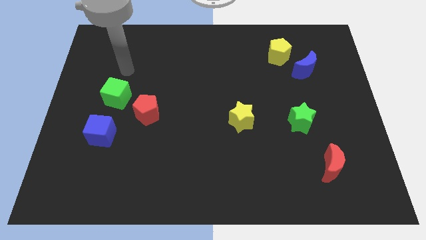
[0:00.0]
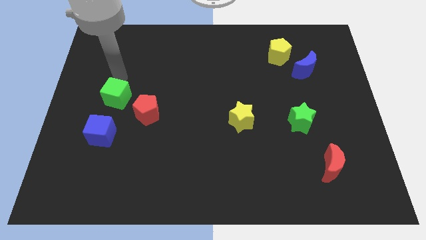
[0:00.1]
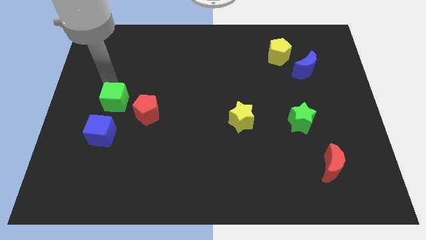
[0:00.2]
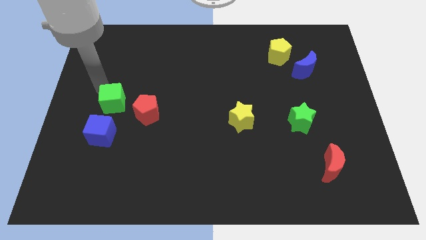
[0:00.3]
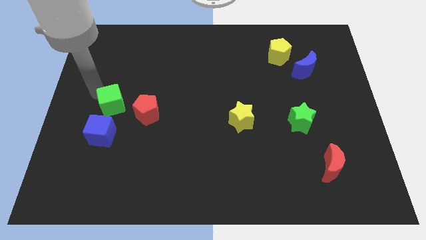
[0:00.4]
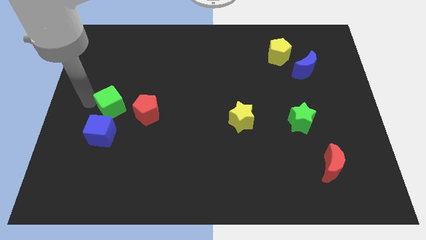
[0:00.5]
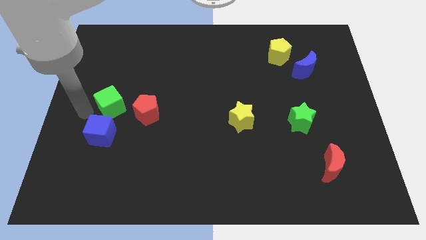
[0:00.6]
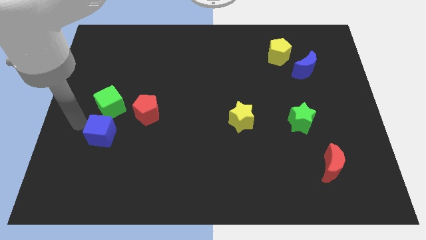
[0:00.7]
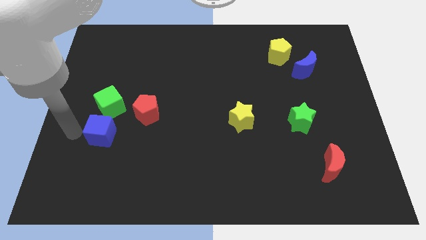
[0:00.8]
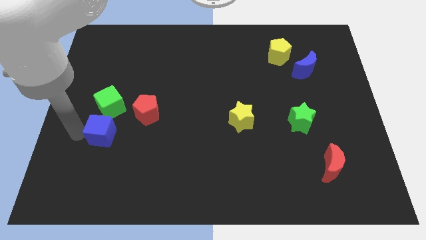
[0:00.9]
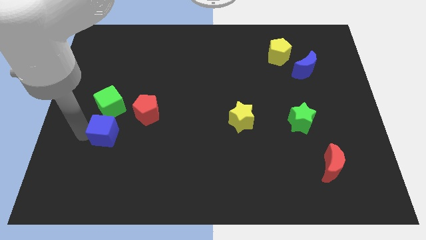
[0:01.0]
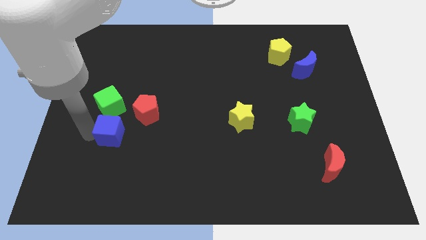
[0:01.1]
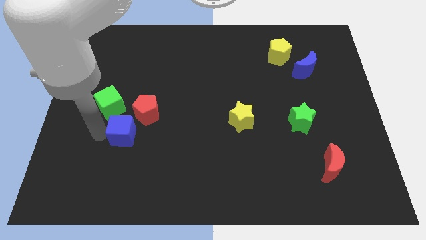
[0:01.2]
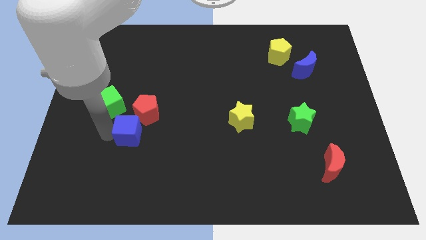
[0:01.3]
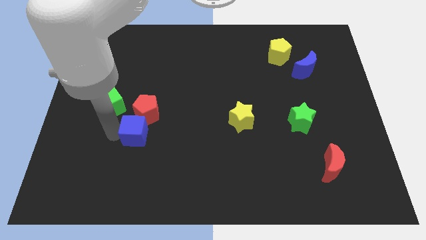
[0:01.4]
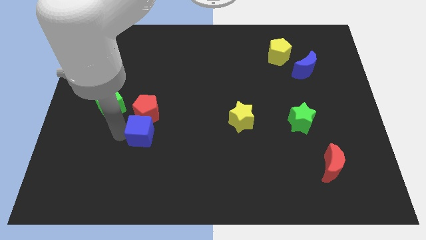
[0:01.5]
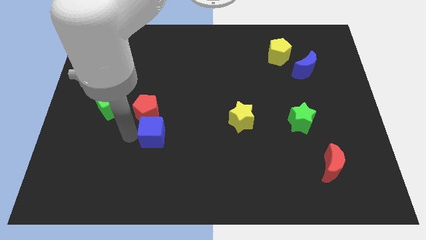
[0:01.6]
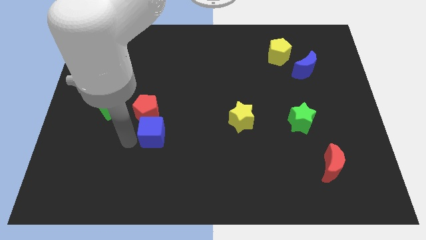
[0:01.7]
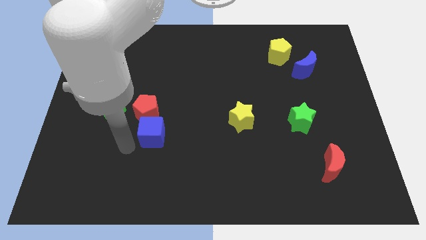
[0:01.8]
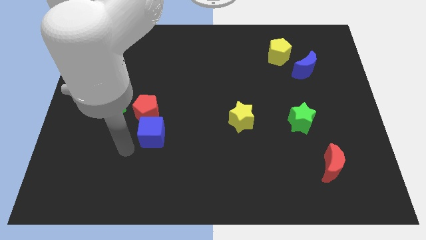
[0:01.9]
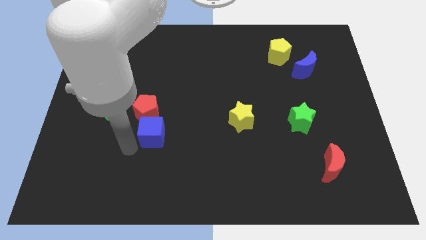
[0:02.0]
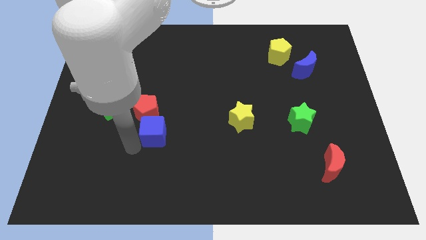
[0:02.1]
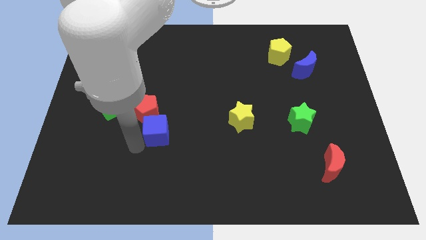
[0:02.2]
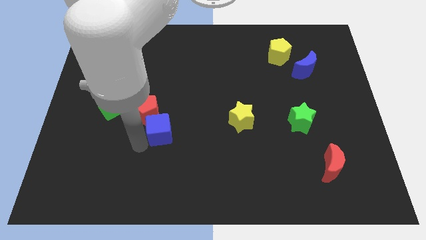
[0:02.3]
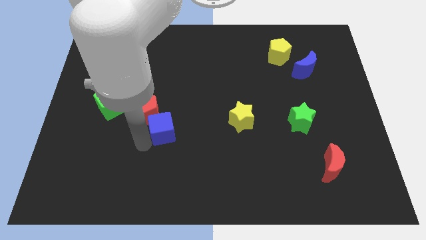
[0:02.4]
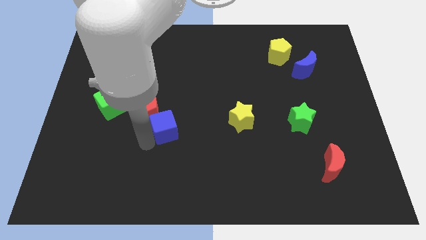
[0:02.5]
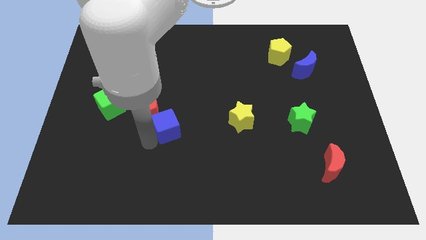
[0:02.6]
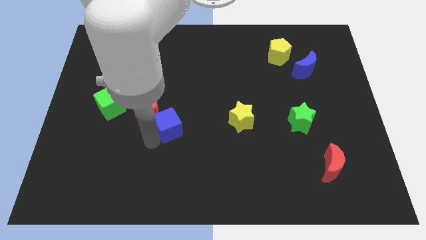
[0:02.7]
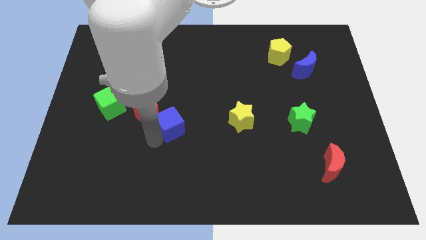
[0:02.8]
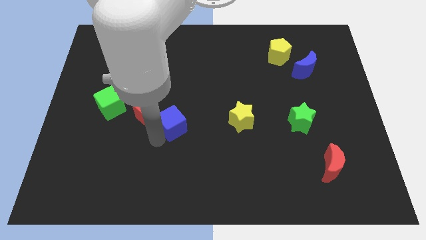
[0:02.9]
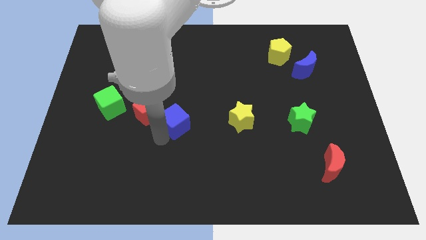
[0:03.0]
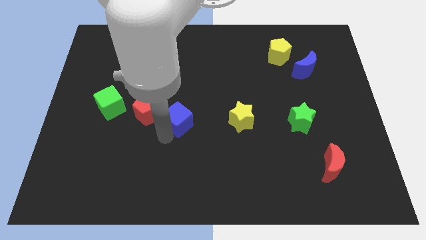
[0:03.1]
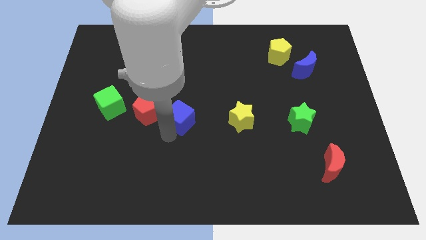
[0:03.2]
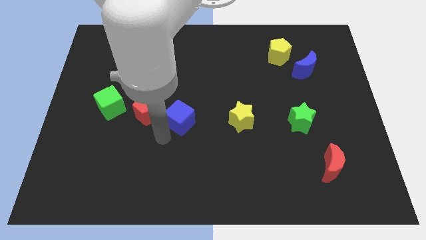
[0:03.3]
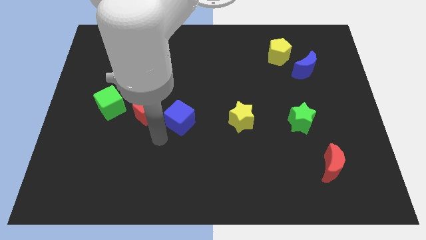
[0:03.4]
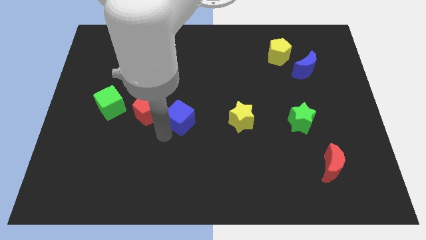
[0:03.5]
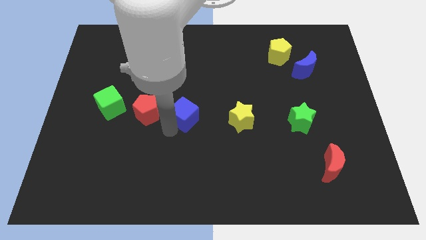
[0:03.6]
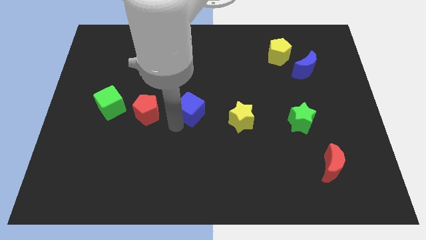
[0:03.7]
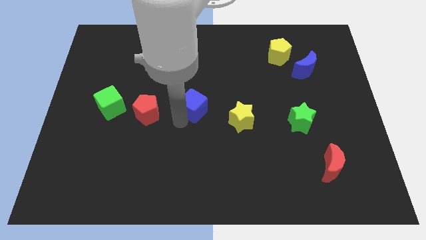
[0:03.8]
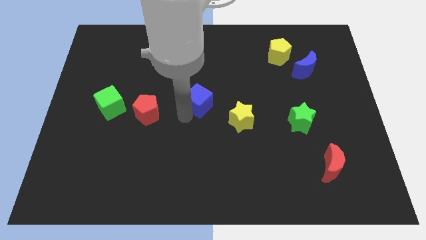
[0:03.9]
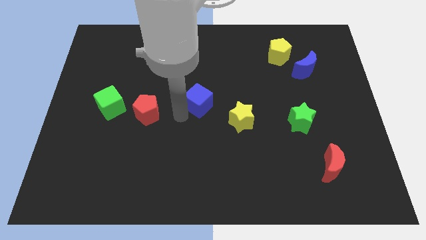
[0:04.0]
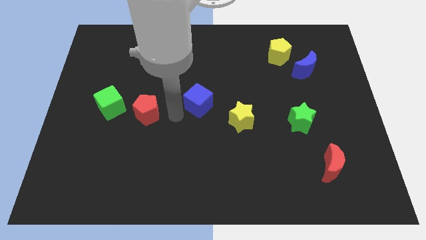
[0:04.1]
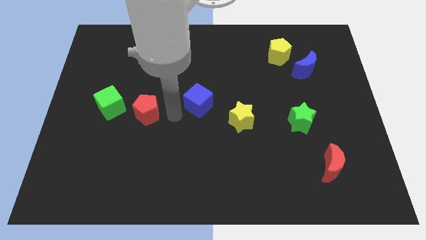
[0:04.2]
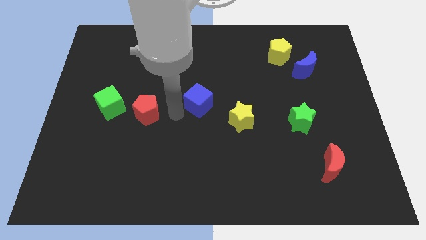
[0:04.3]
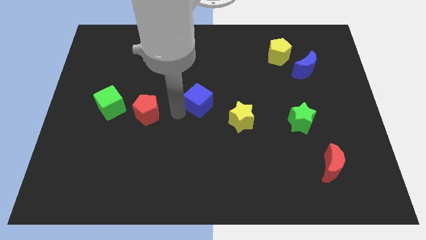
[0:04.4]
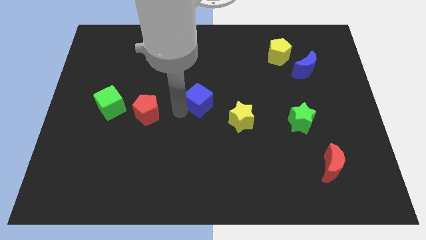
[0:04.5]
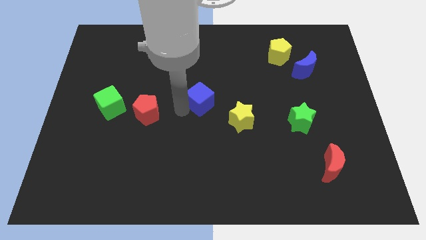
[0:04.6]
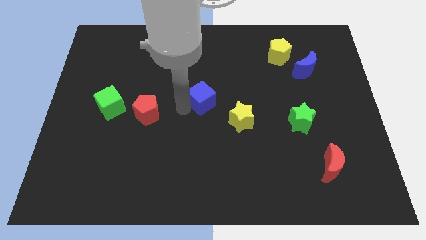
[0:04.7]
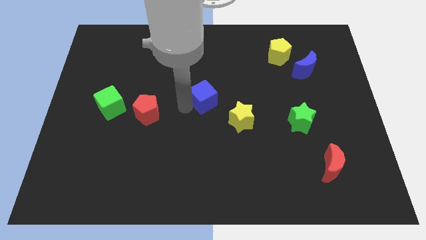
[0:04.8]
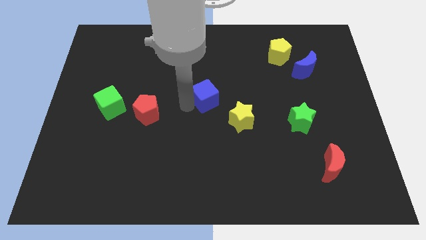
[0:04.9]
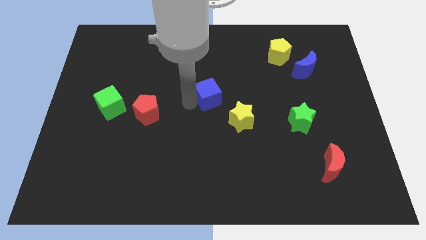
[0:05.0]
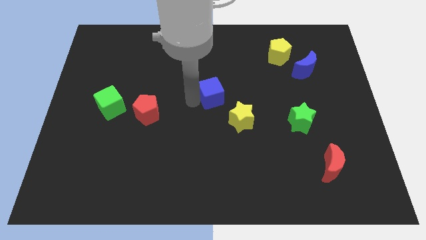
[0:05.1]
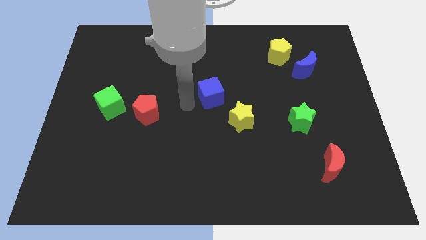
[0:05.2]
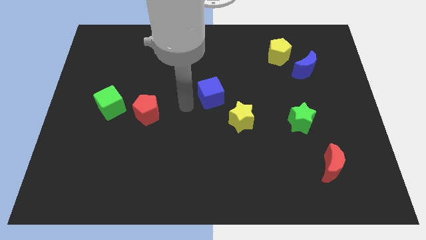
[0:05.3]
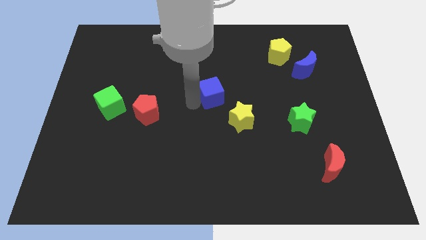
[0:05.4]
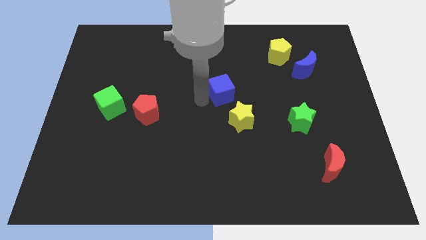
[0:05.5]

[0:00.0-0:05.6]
slide the blue cube to the top of the yellow star

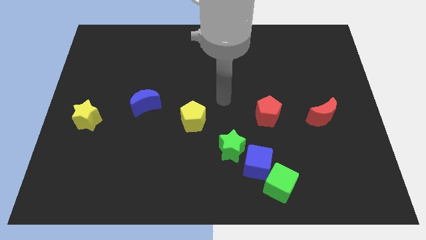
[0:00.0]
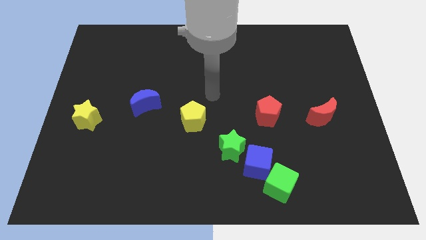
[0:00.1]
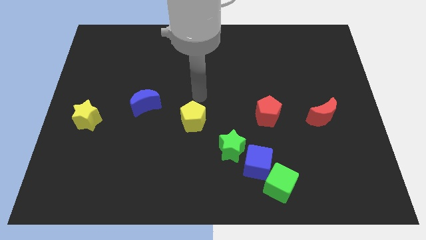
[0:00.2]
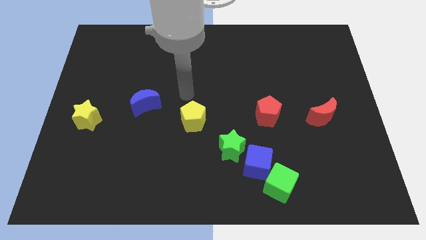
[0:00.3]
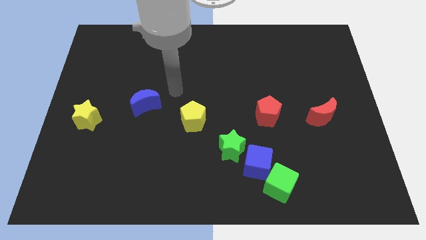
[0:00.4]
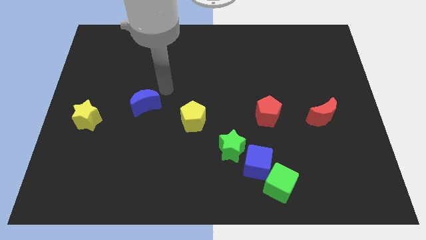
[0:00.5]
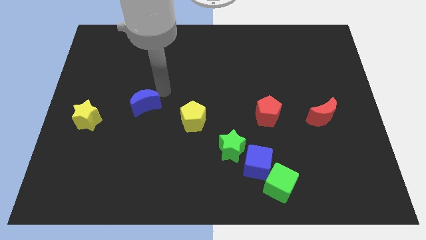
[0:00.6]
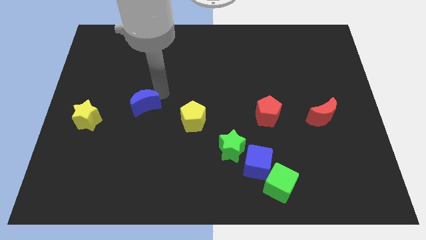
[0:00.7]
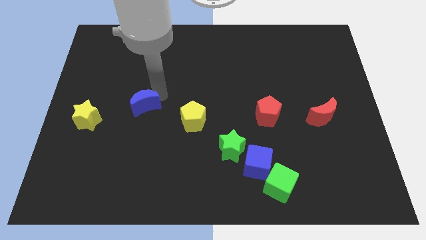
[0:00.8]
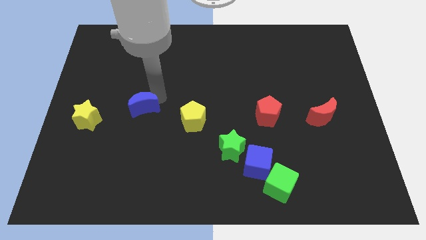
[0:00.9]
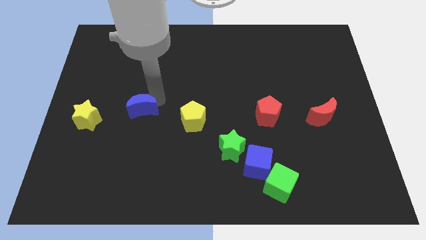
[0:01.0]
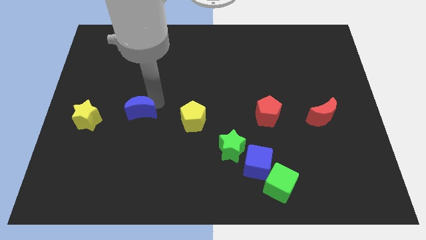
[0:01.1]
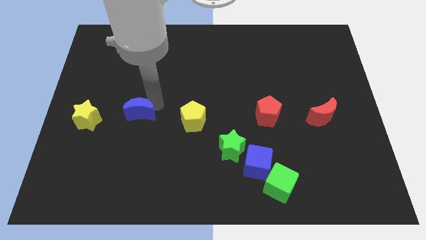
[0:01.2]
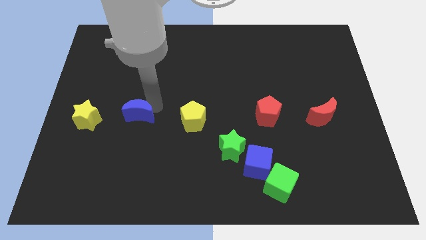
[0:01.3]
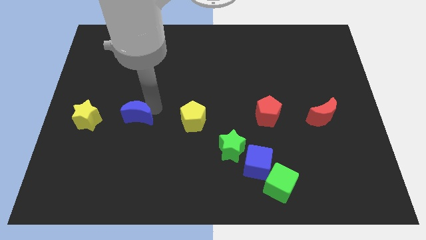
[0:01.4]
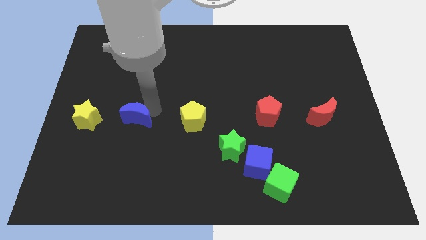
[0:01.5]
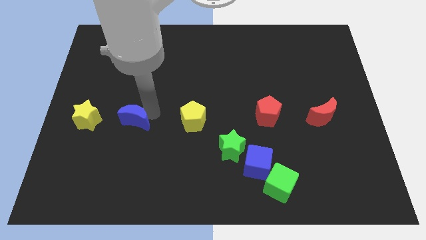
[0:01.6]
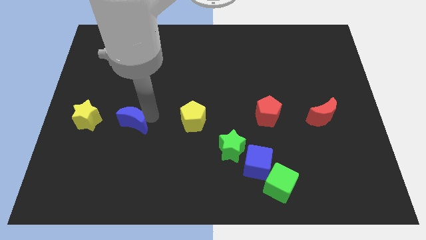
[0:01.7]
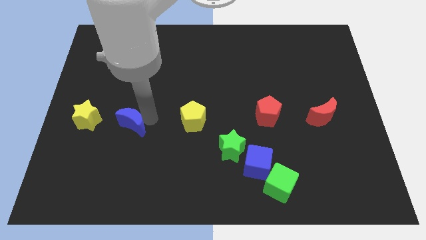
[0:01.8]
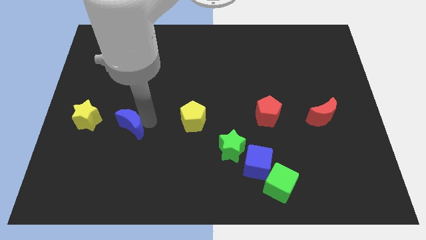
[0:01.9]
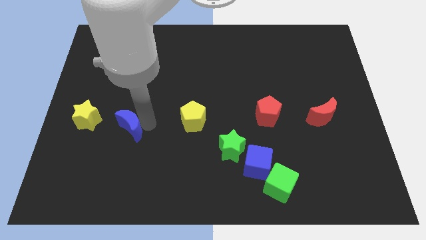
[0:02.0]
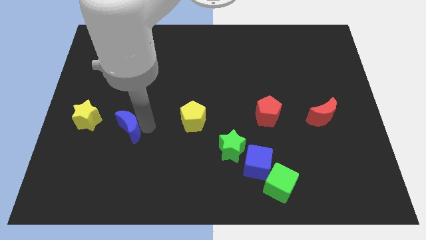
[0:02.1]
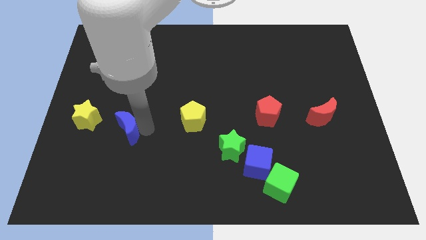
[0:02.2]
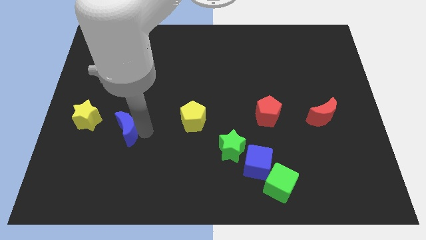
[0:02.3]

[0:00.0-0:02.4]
push the blue moon diagonally down and to the right of the yellow star
